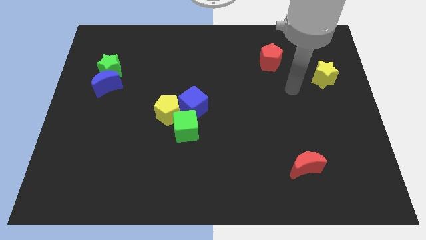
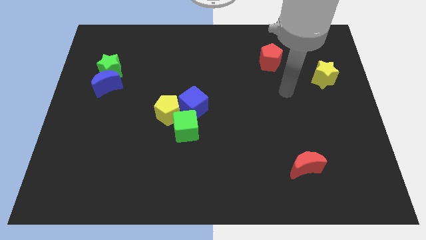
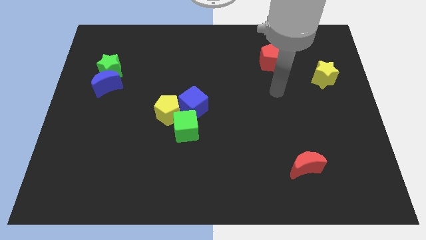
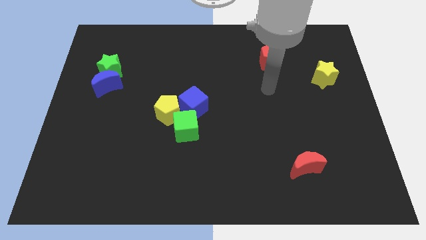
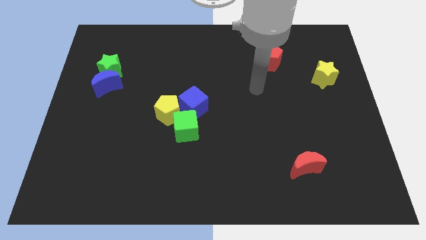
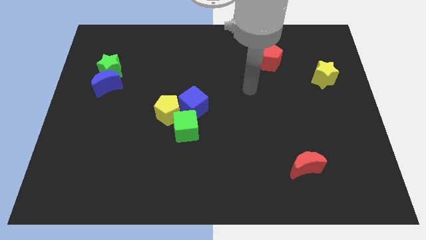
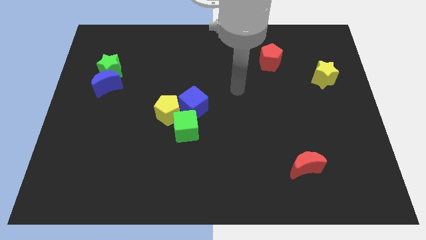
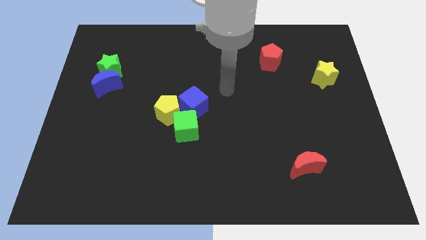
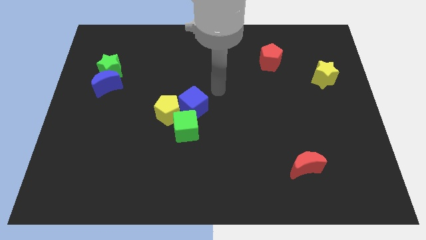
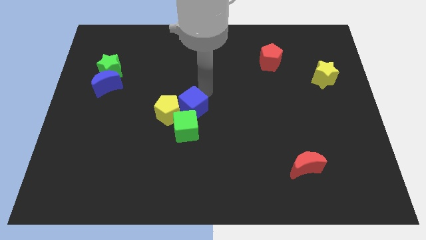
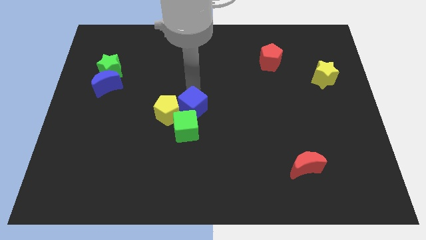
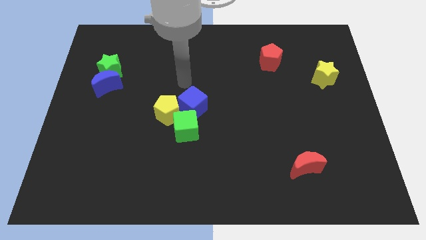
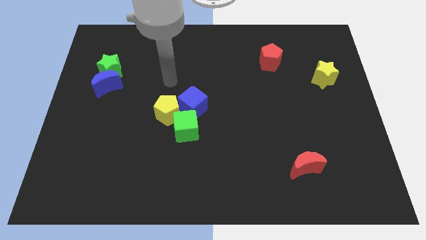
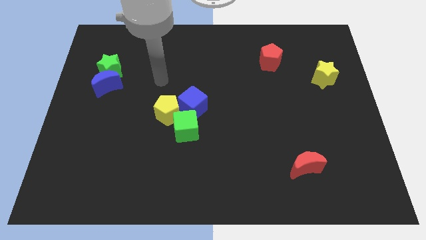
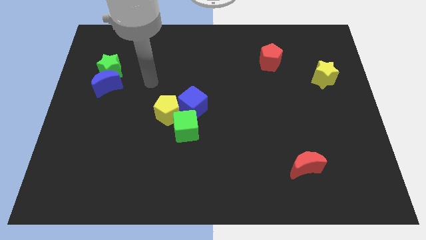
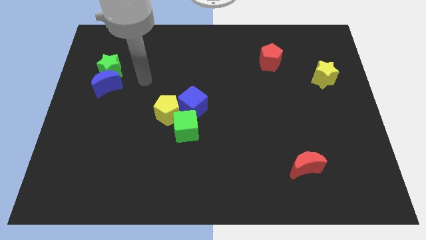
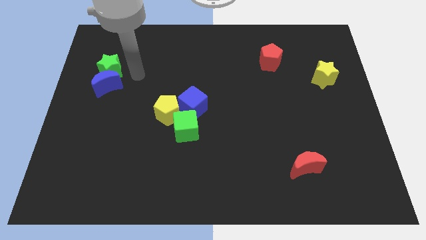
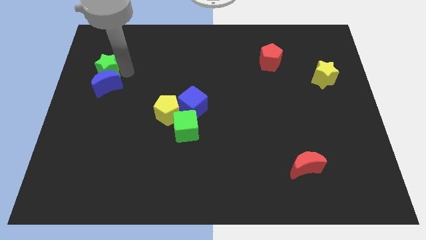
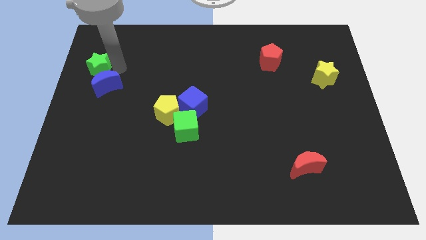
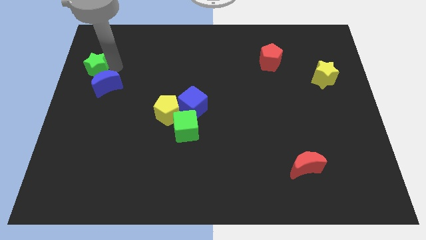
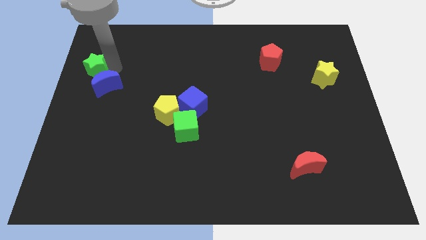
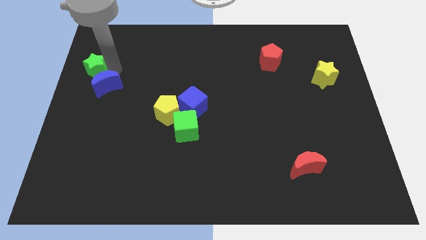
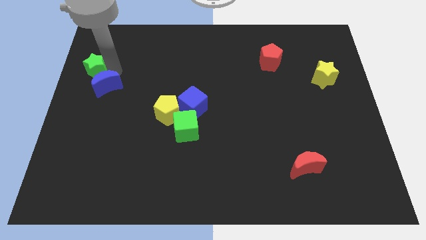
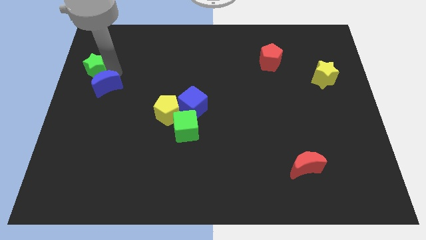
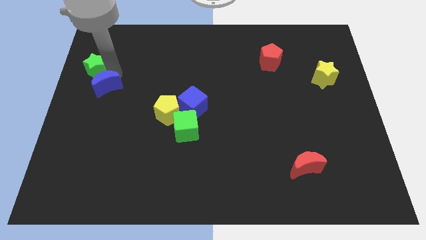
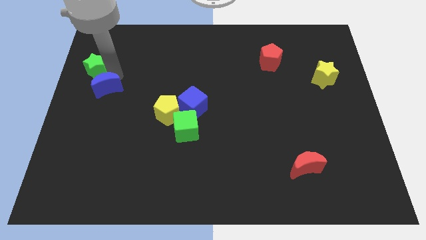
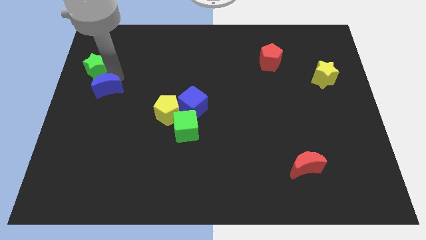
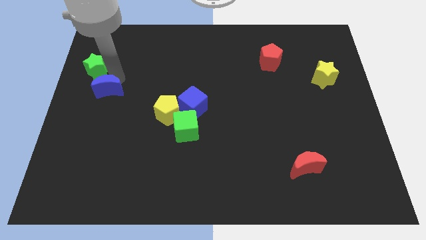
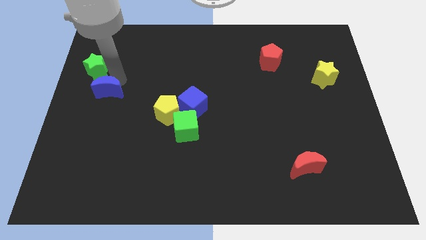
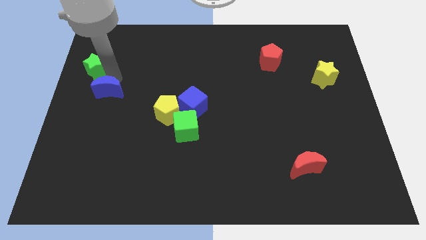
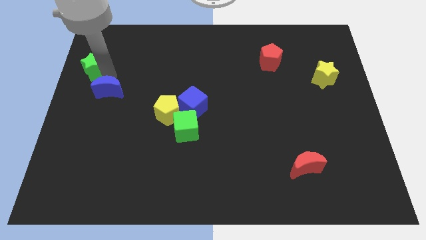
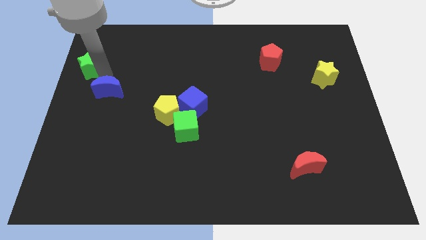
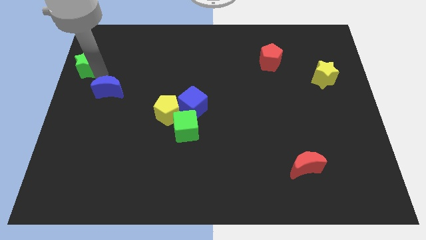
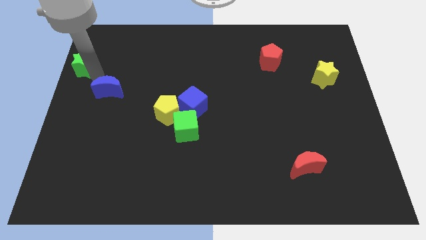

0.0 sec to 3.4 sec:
pull the blue moon apart from the green star

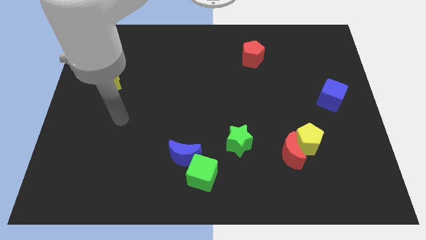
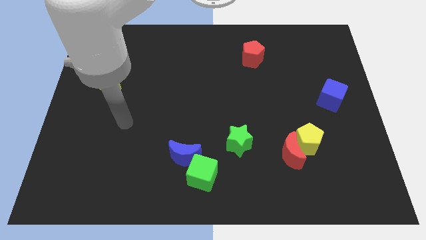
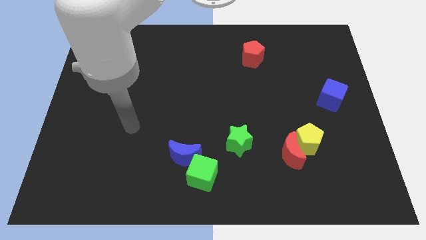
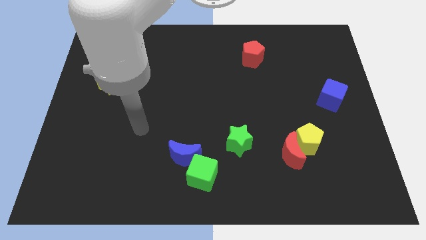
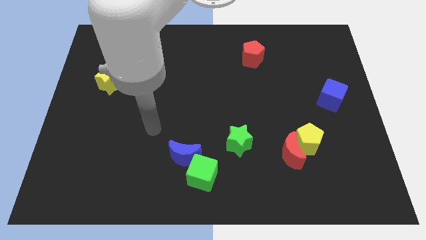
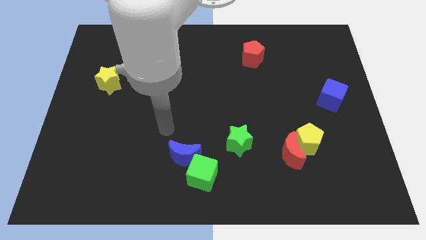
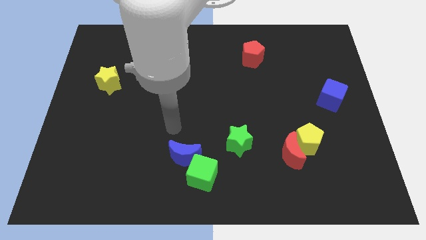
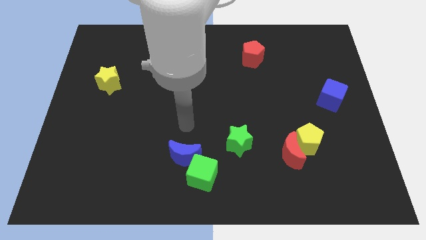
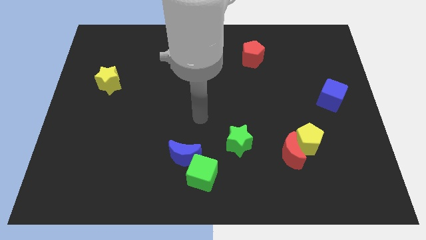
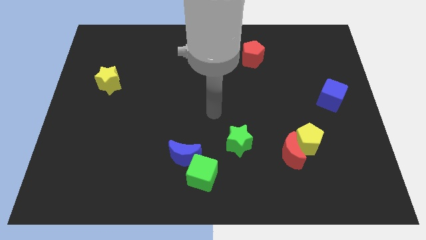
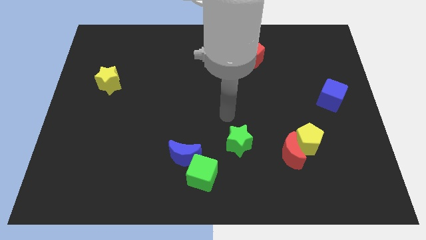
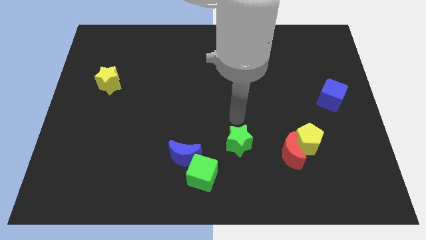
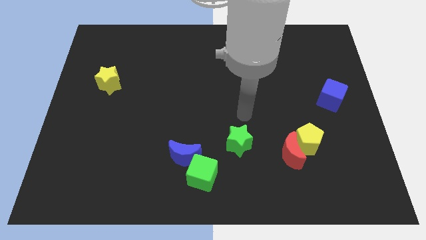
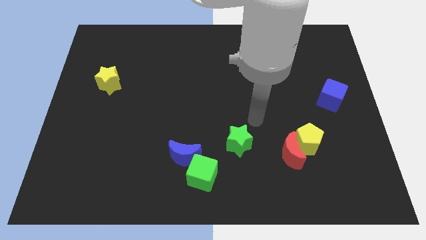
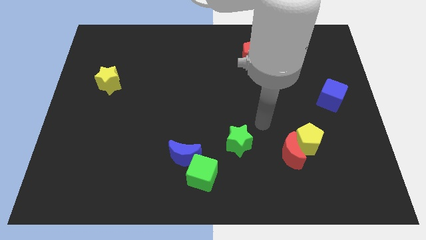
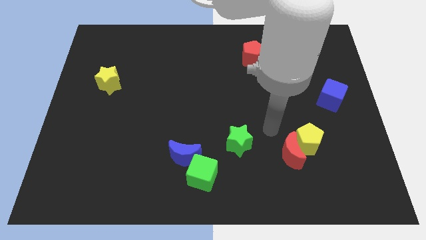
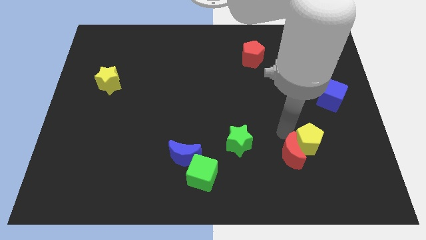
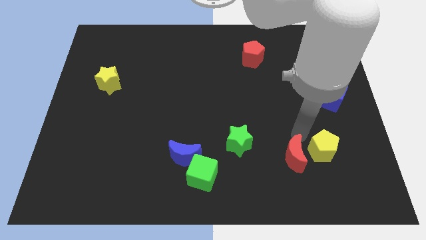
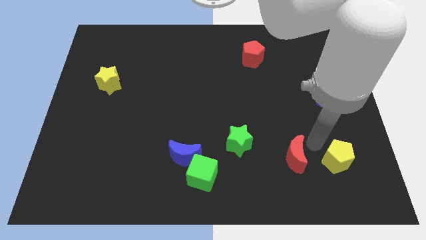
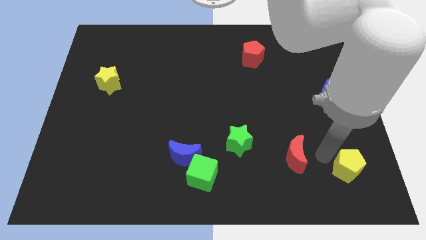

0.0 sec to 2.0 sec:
move the red moon away from the yellow pentagon

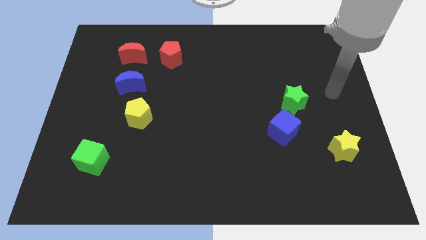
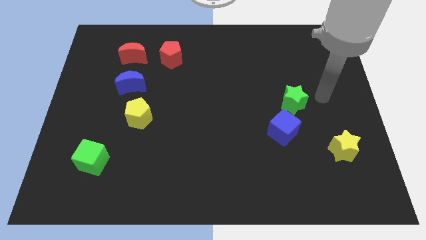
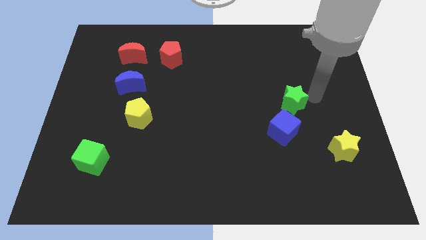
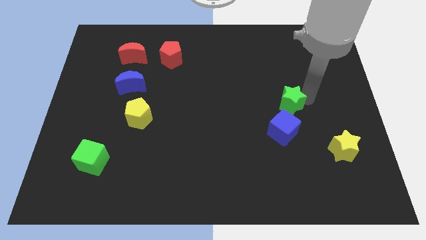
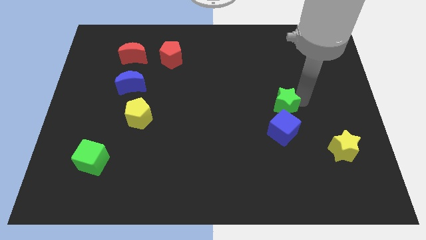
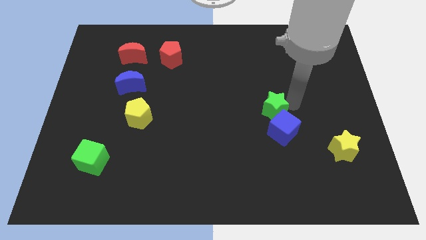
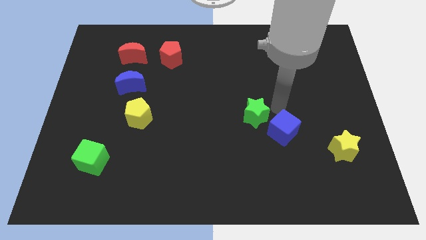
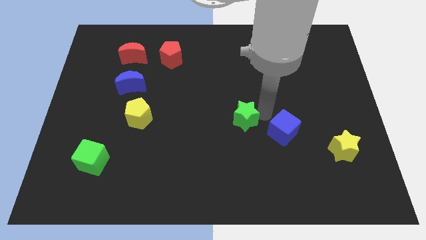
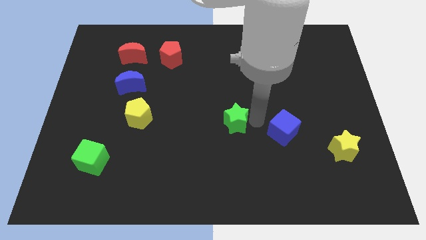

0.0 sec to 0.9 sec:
separate the blue cube from the green star

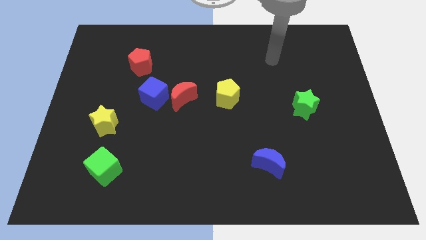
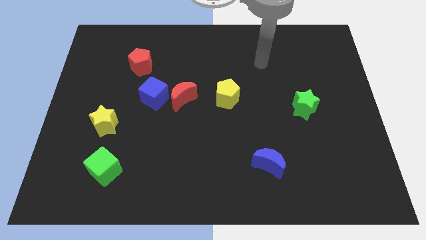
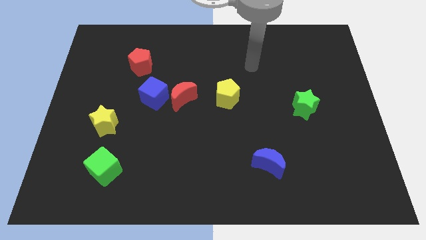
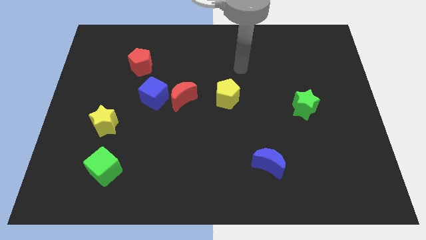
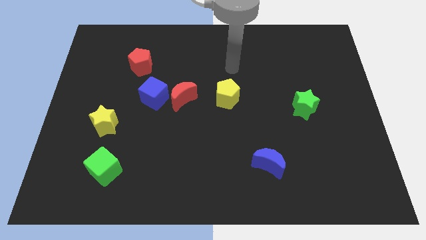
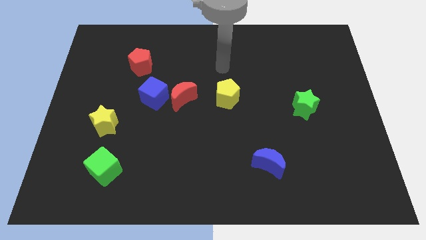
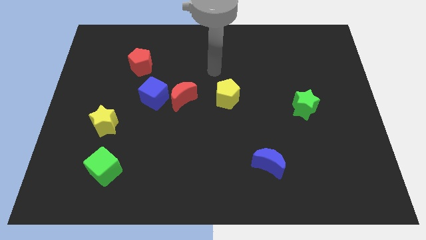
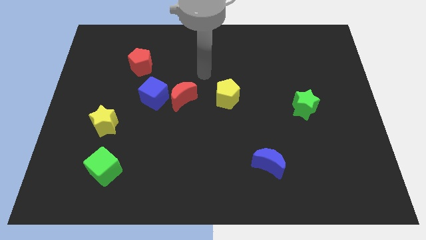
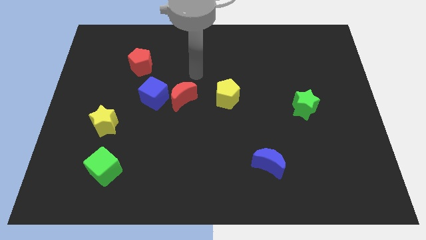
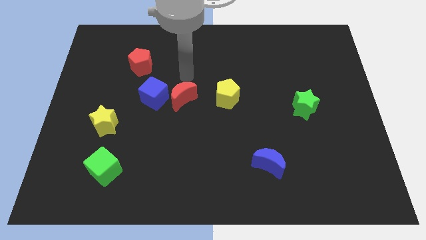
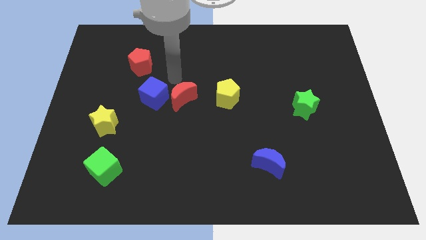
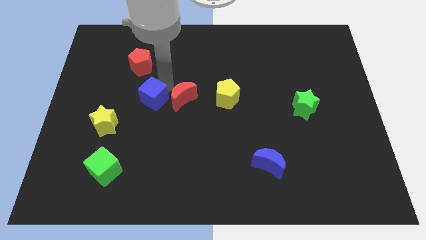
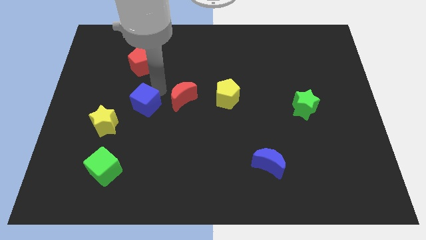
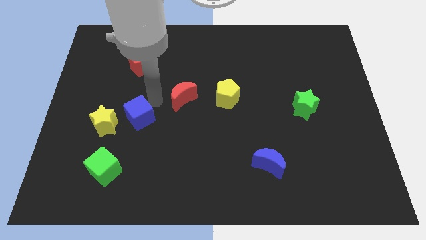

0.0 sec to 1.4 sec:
separate the red moon from the blue cube

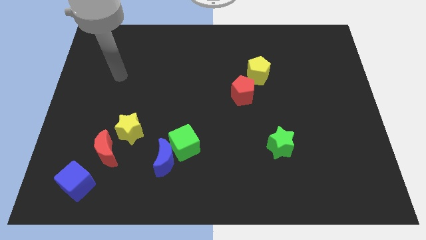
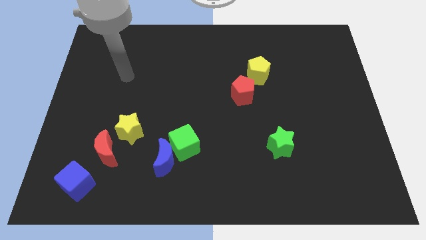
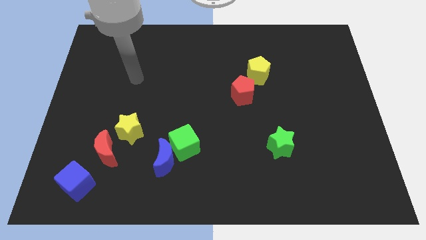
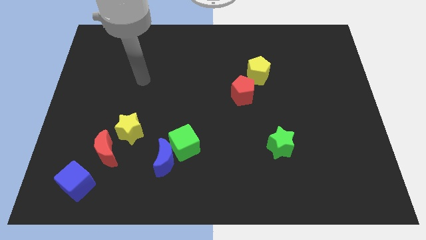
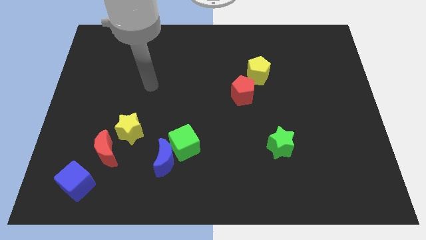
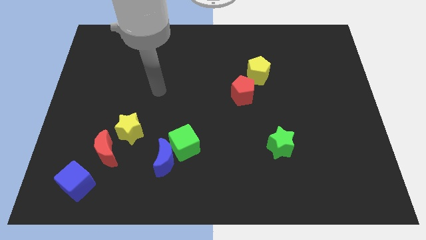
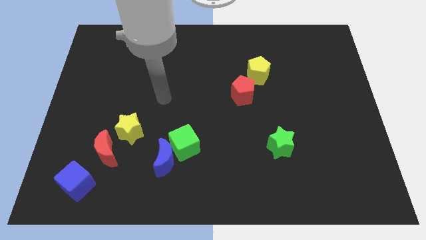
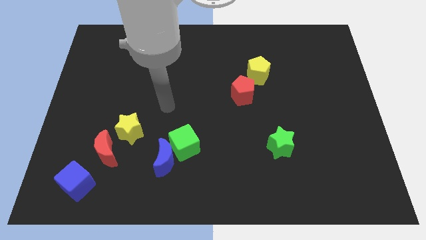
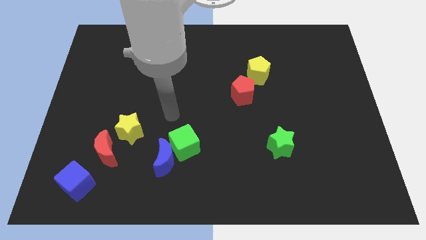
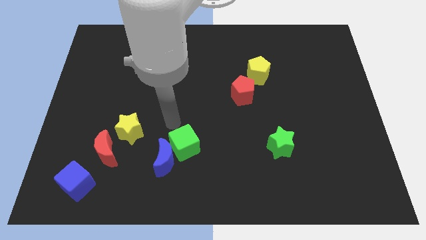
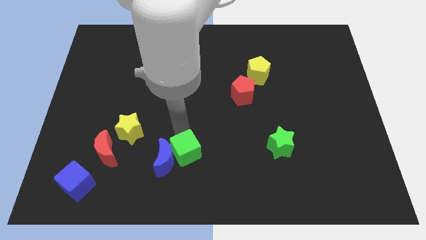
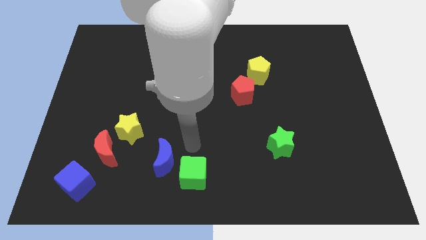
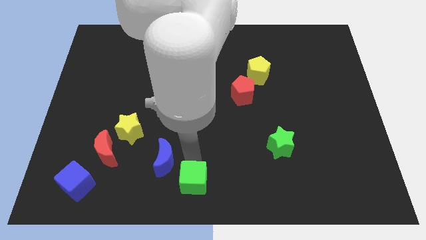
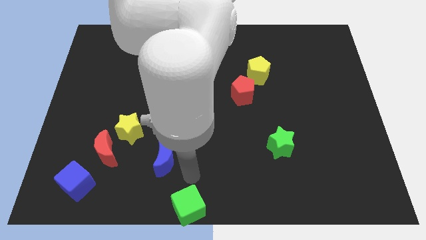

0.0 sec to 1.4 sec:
separate the blue moon from the green cube

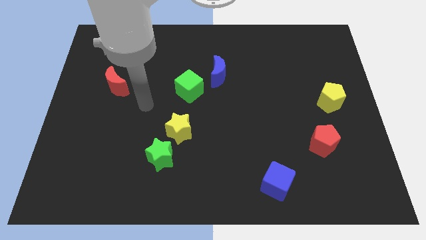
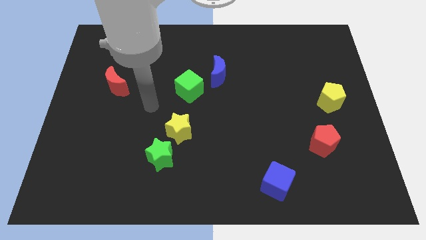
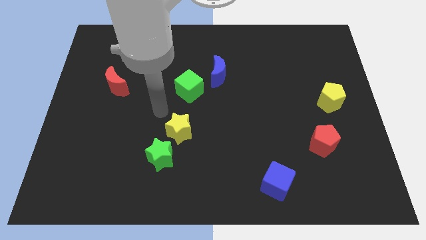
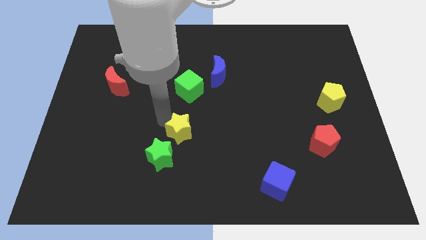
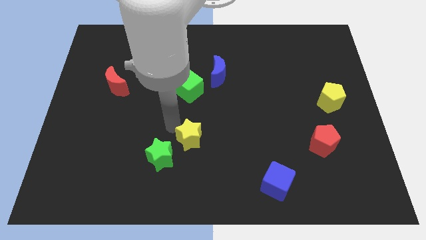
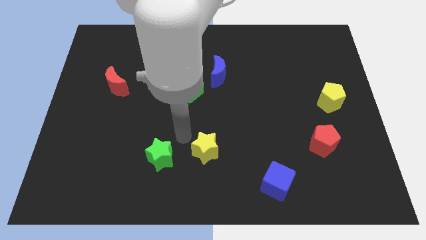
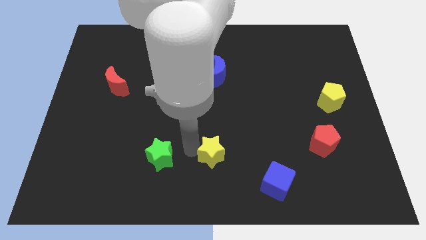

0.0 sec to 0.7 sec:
move the green star away from the yellow star
